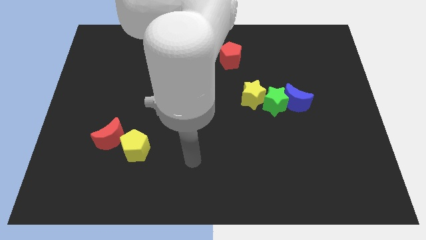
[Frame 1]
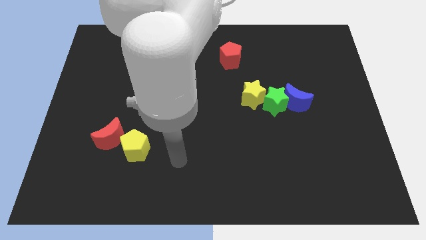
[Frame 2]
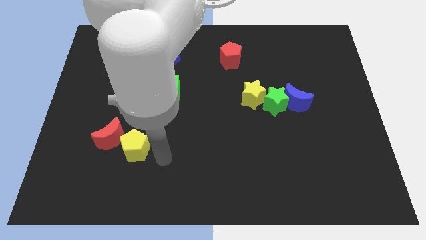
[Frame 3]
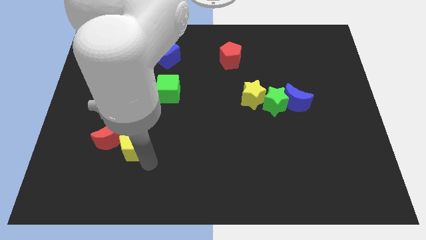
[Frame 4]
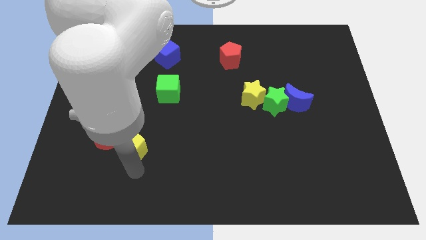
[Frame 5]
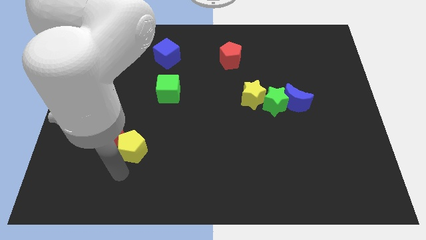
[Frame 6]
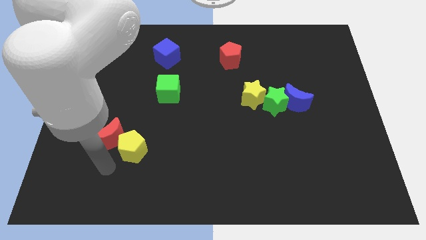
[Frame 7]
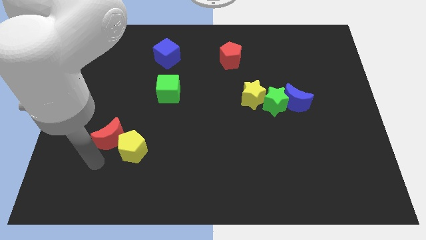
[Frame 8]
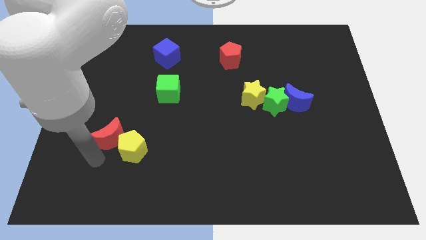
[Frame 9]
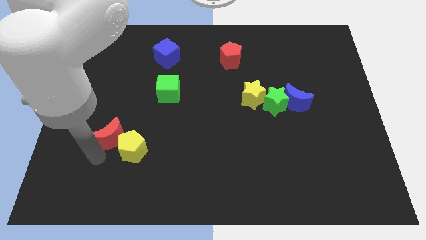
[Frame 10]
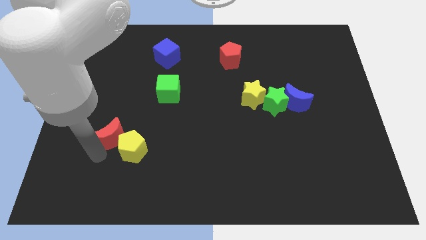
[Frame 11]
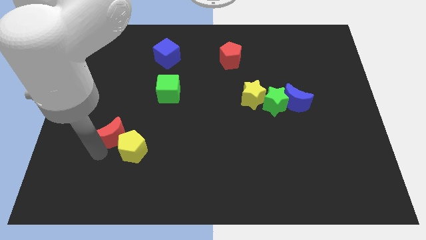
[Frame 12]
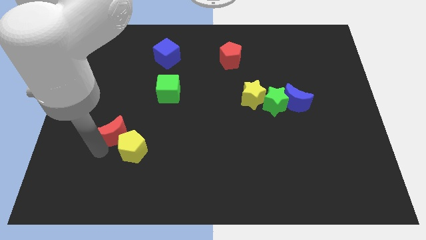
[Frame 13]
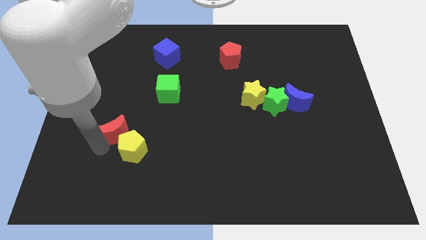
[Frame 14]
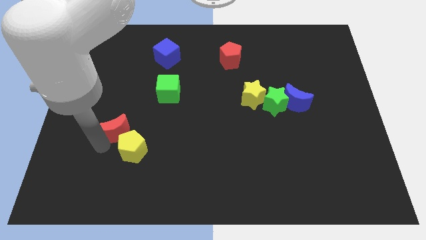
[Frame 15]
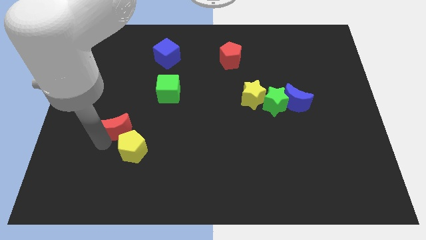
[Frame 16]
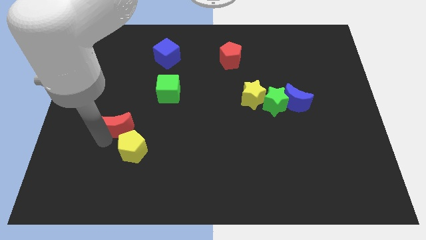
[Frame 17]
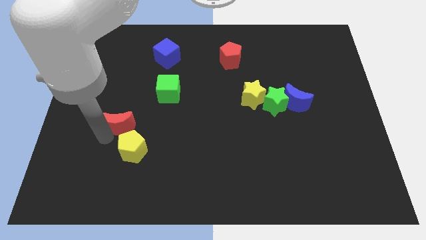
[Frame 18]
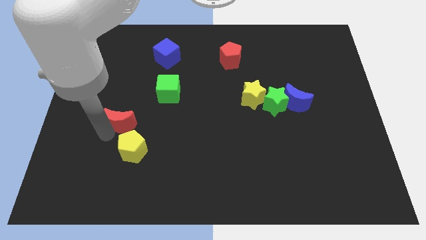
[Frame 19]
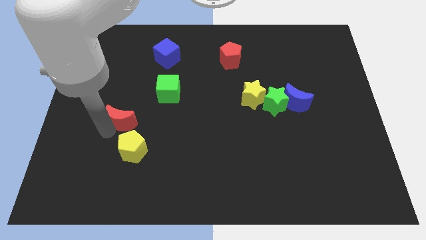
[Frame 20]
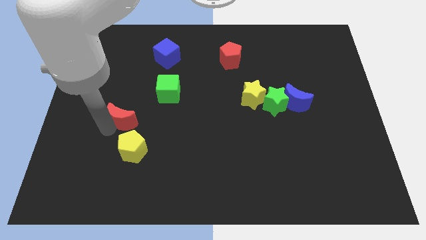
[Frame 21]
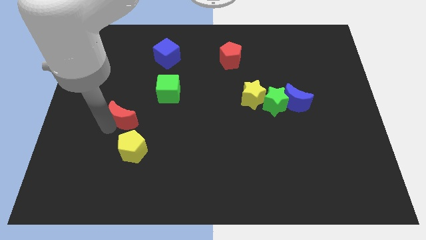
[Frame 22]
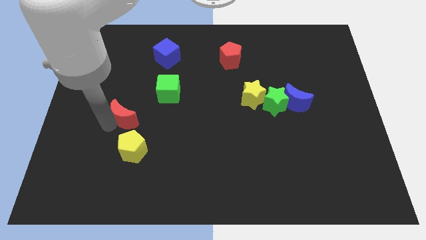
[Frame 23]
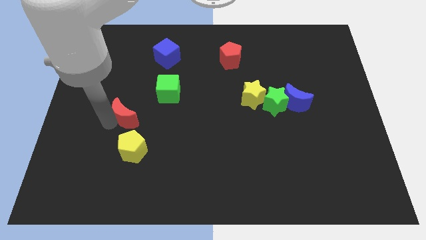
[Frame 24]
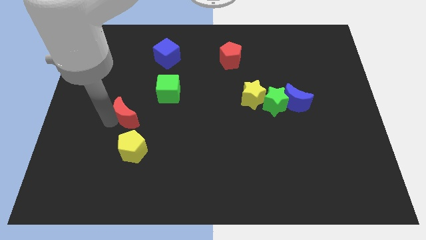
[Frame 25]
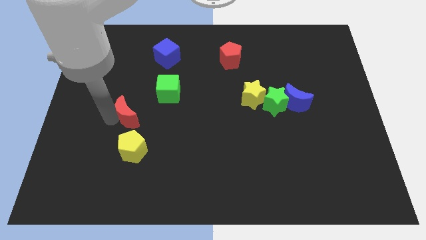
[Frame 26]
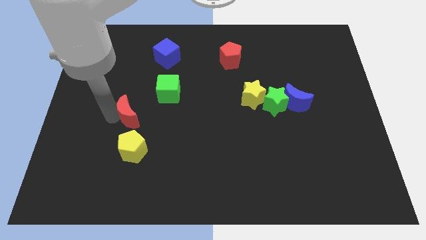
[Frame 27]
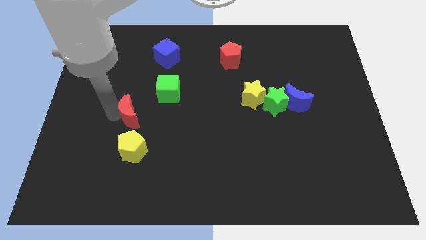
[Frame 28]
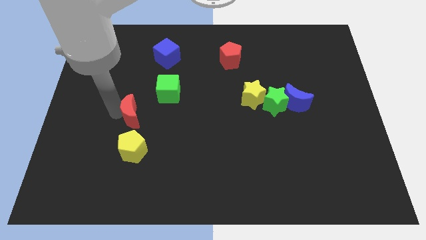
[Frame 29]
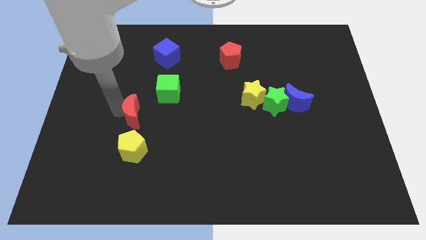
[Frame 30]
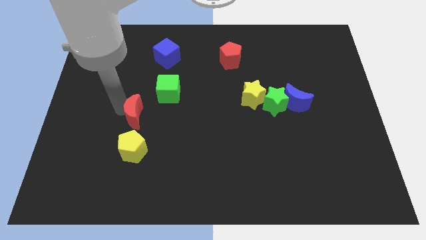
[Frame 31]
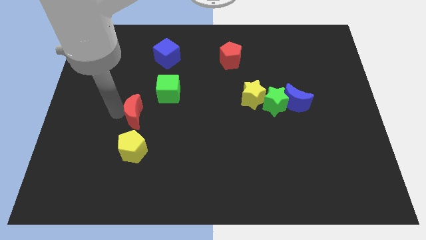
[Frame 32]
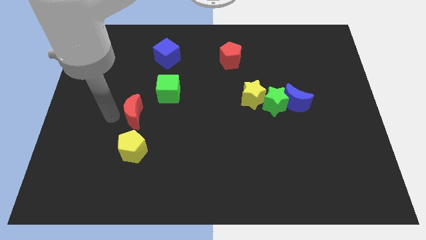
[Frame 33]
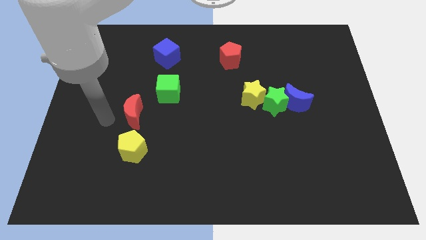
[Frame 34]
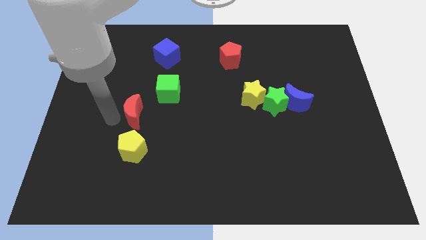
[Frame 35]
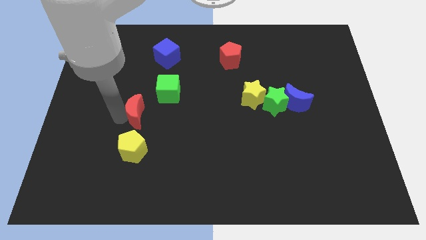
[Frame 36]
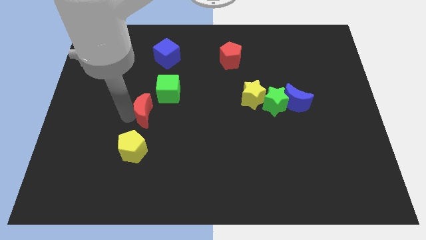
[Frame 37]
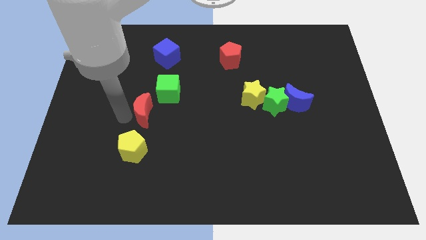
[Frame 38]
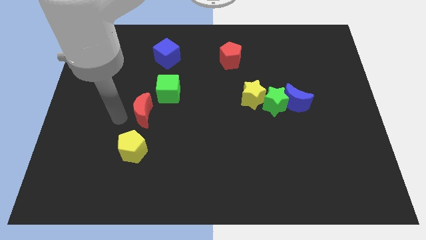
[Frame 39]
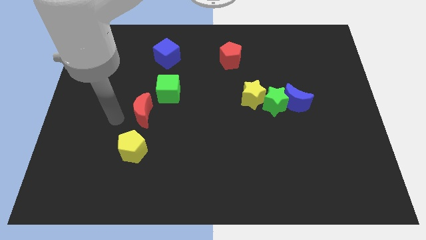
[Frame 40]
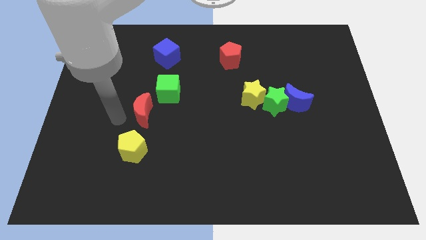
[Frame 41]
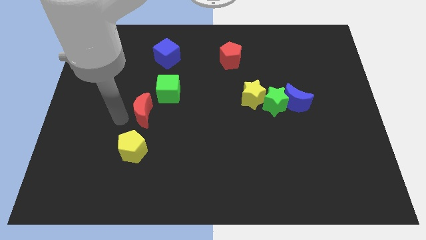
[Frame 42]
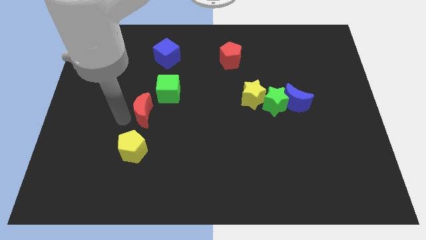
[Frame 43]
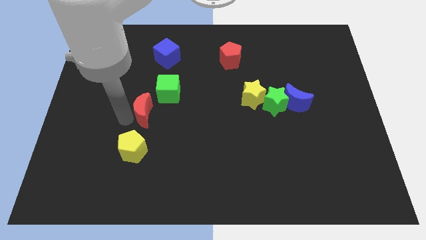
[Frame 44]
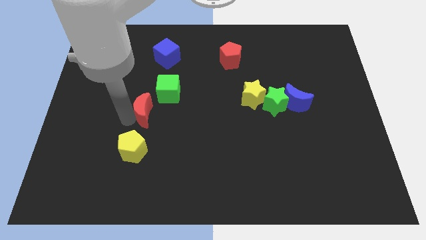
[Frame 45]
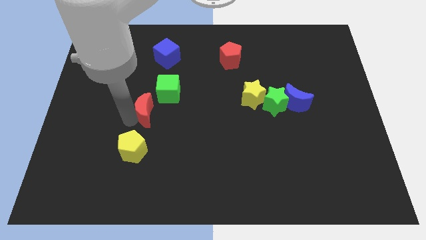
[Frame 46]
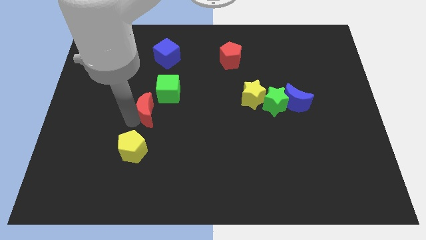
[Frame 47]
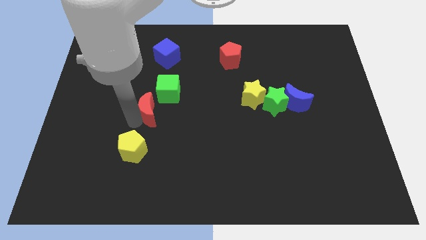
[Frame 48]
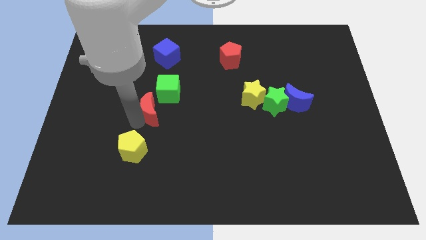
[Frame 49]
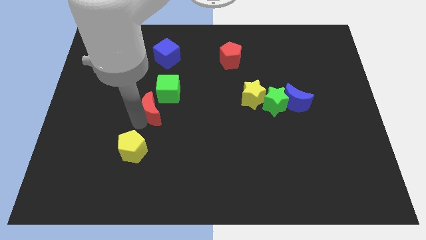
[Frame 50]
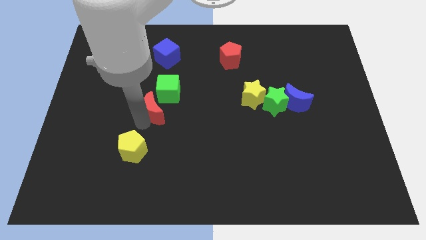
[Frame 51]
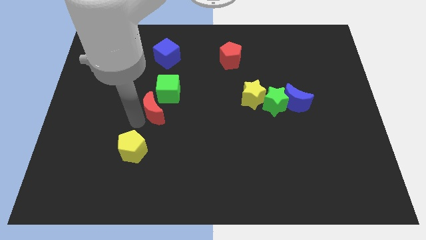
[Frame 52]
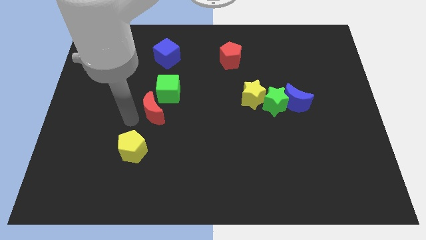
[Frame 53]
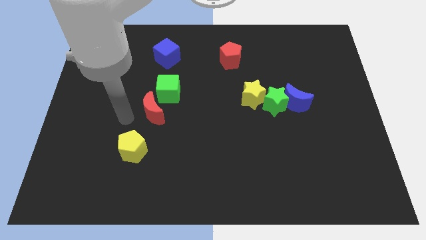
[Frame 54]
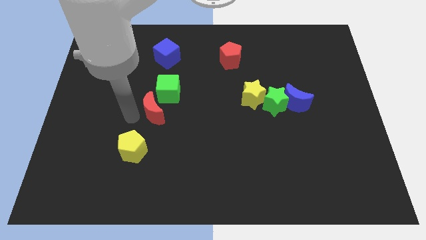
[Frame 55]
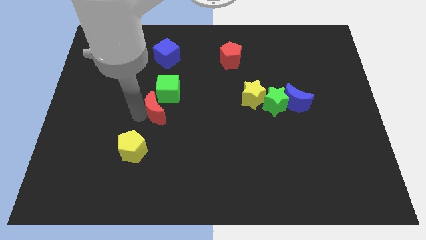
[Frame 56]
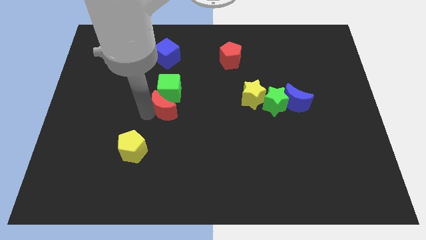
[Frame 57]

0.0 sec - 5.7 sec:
push the red moon to the center of the board
